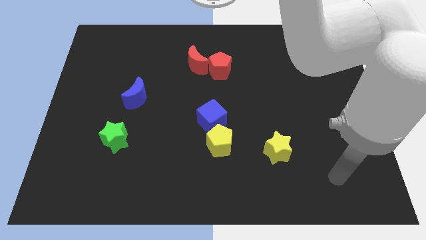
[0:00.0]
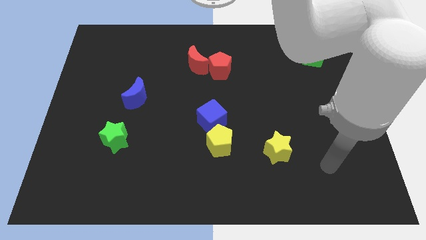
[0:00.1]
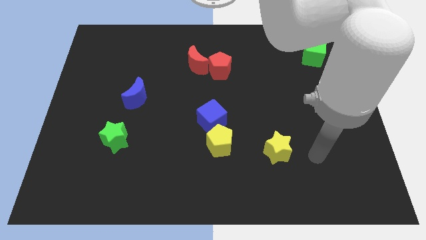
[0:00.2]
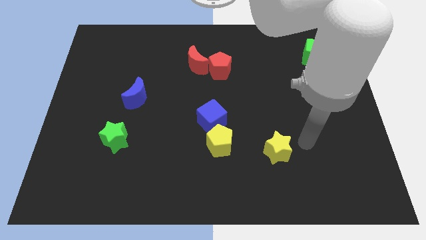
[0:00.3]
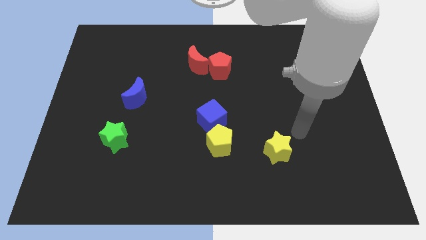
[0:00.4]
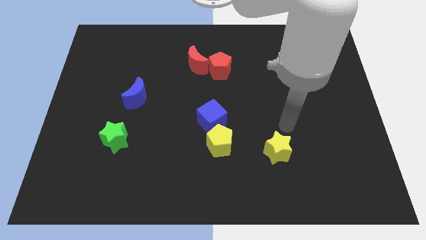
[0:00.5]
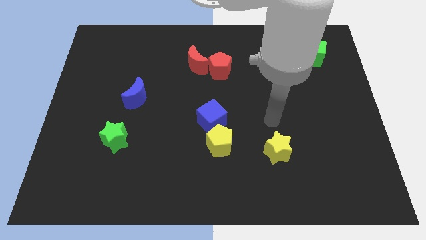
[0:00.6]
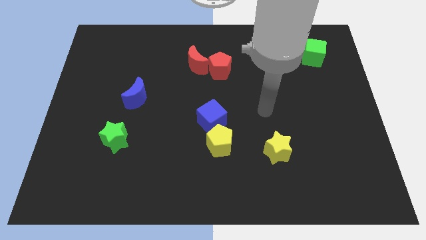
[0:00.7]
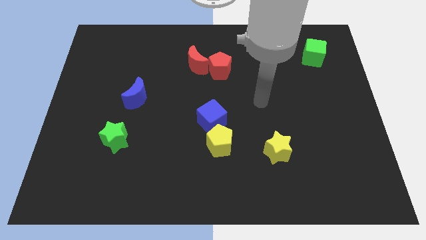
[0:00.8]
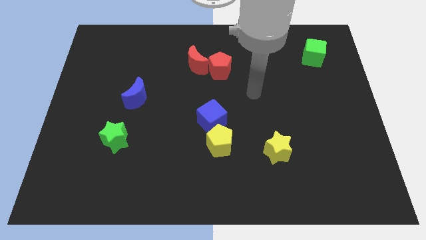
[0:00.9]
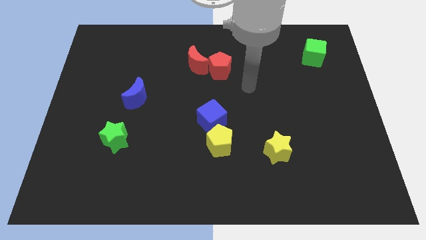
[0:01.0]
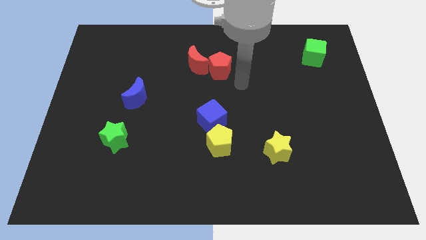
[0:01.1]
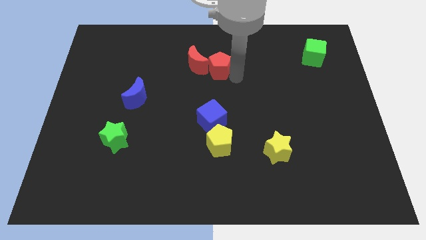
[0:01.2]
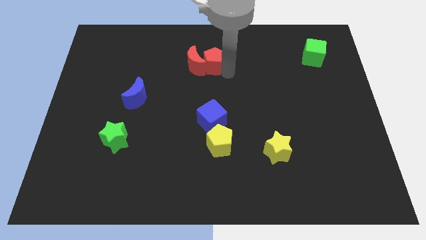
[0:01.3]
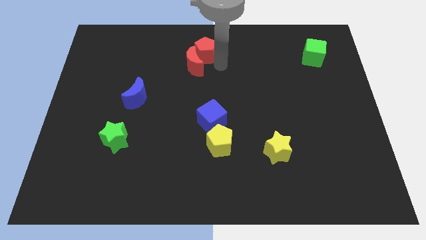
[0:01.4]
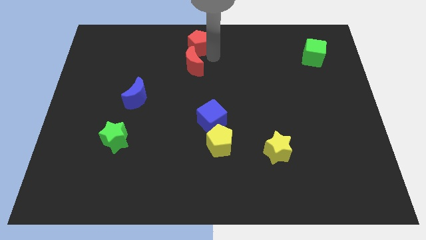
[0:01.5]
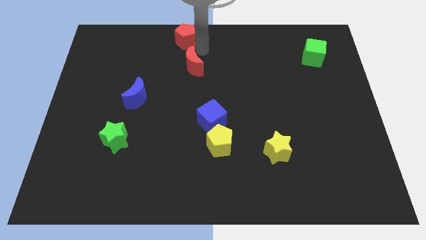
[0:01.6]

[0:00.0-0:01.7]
pull the red moon apart from the red pentagon

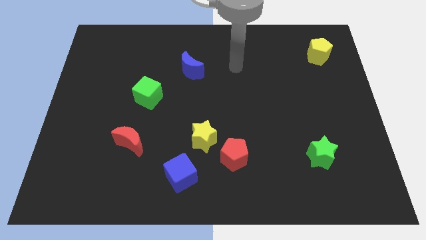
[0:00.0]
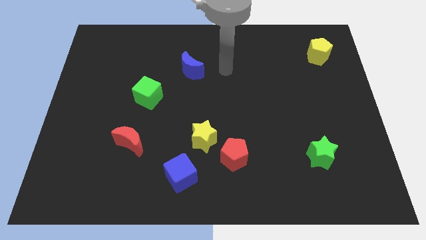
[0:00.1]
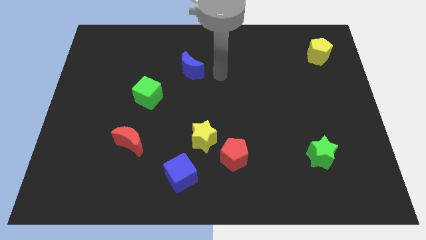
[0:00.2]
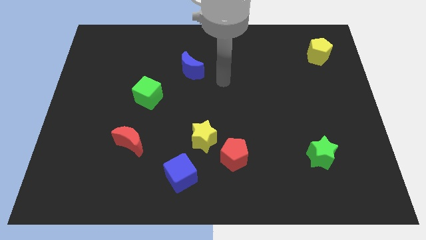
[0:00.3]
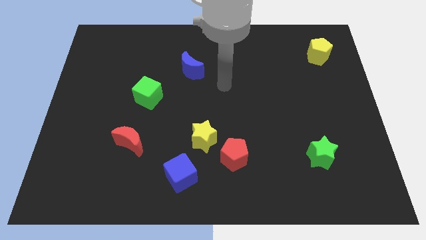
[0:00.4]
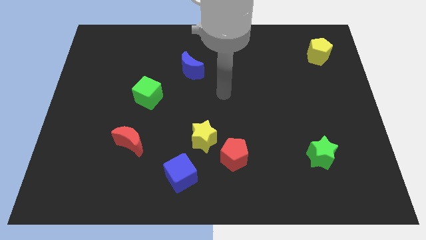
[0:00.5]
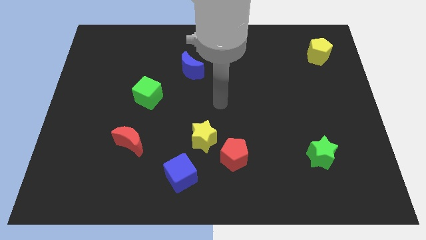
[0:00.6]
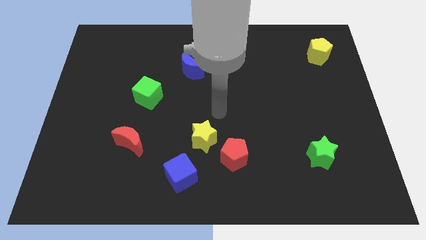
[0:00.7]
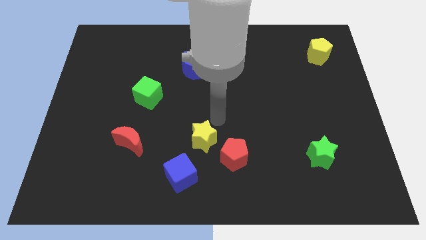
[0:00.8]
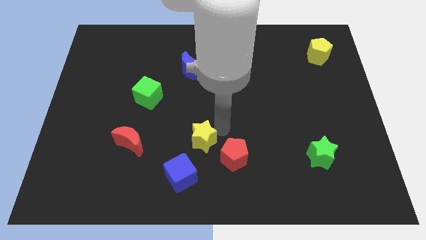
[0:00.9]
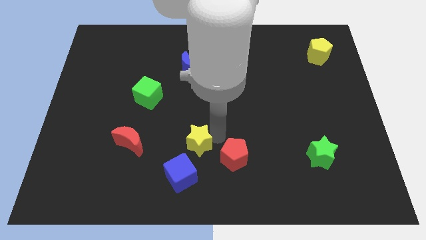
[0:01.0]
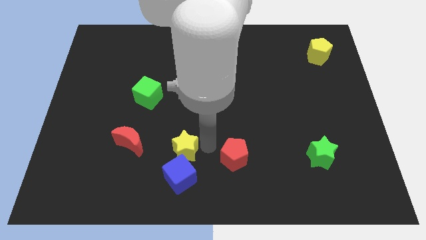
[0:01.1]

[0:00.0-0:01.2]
move the red pentagon away from the yellow star

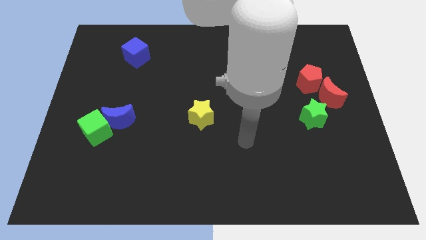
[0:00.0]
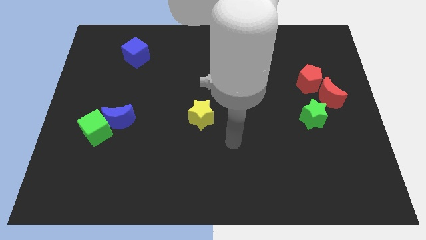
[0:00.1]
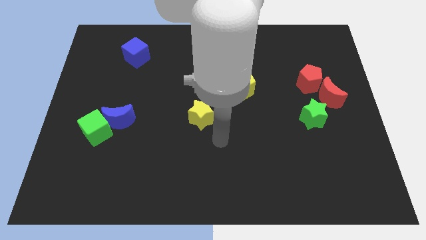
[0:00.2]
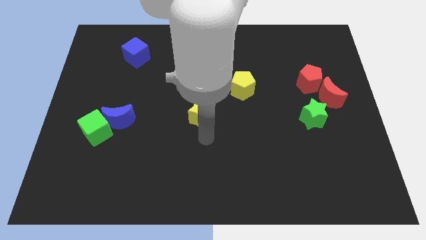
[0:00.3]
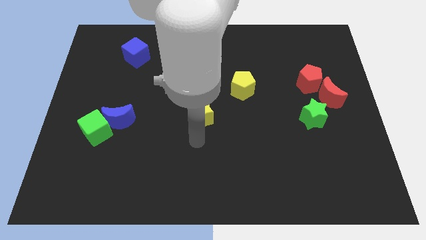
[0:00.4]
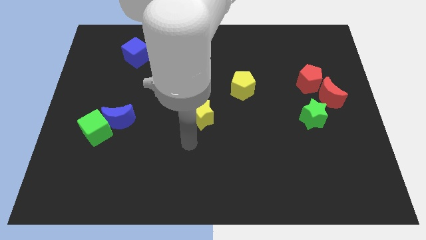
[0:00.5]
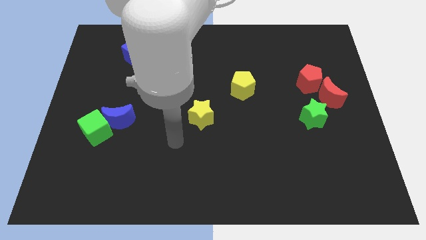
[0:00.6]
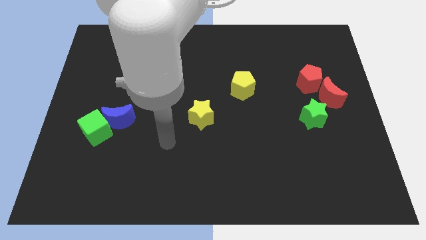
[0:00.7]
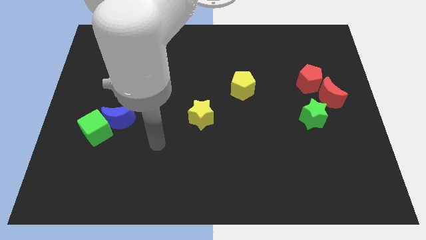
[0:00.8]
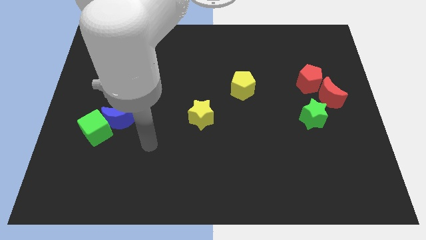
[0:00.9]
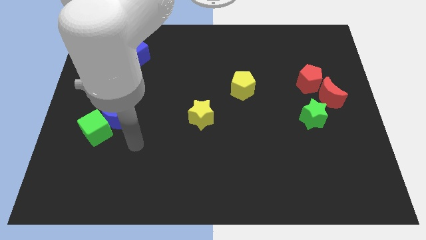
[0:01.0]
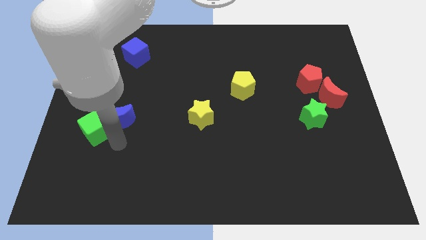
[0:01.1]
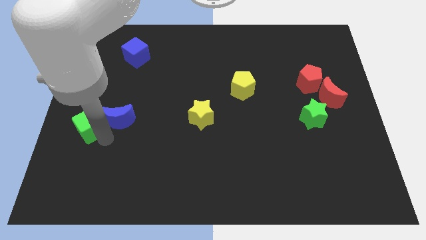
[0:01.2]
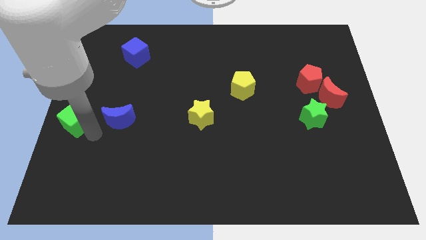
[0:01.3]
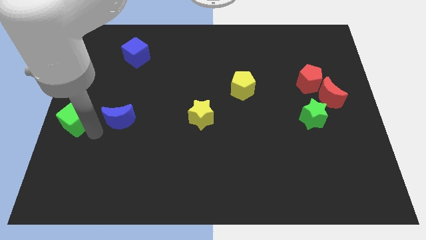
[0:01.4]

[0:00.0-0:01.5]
pull the blue moon apart from the green cube

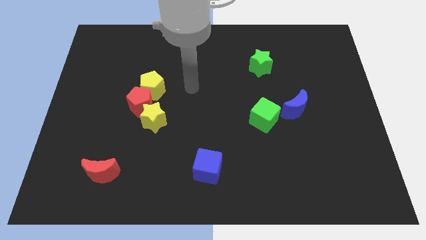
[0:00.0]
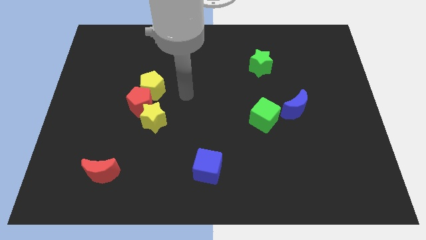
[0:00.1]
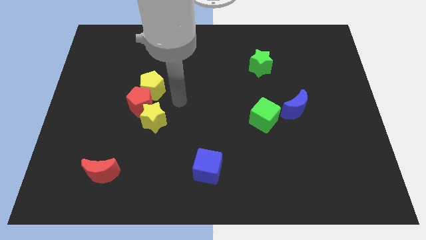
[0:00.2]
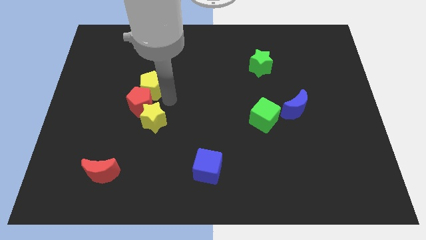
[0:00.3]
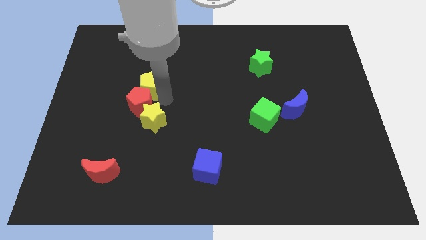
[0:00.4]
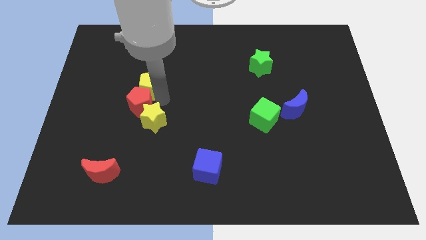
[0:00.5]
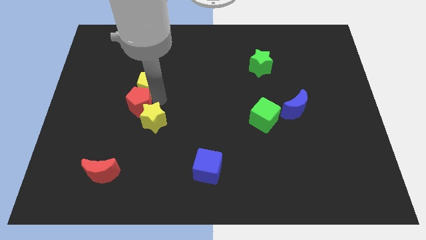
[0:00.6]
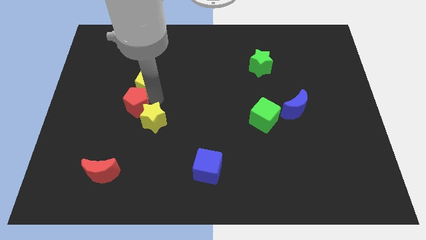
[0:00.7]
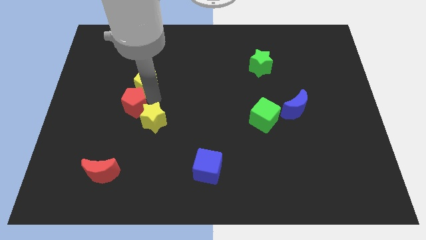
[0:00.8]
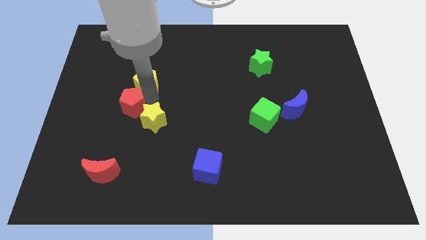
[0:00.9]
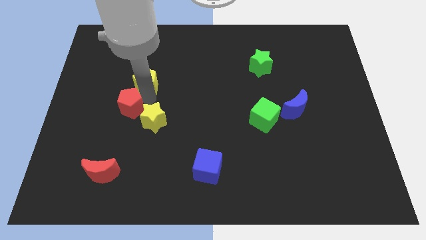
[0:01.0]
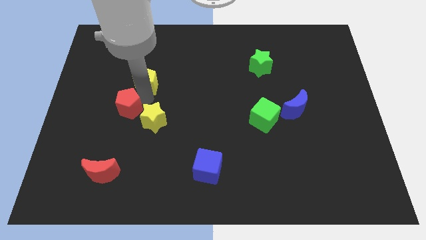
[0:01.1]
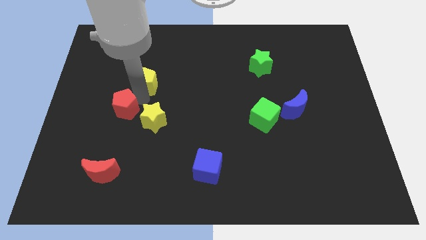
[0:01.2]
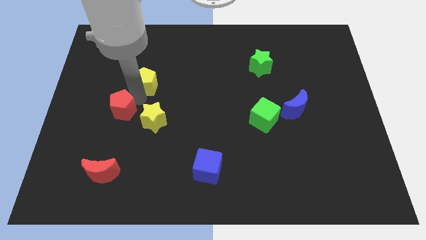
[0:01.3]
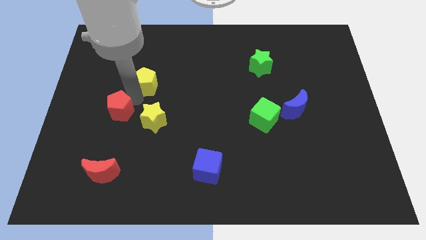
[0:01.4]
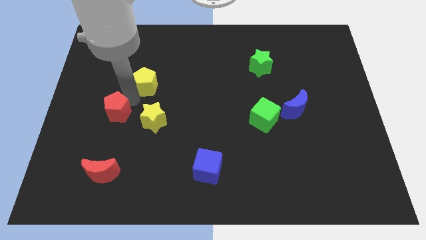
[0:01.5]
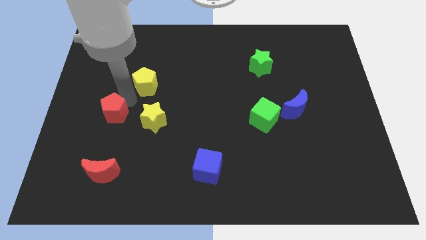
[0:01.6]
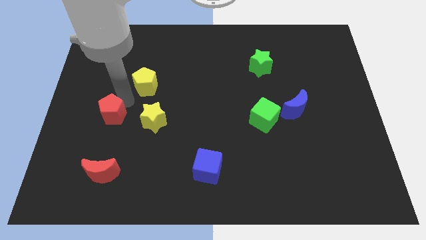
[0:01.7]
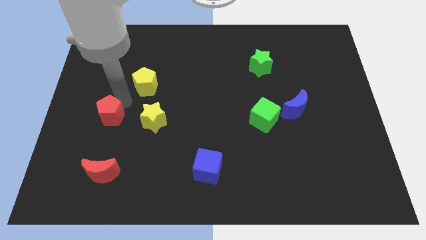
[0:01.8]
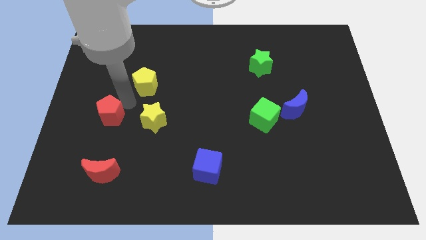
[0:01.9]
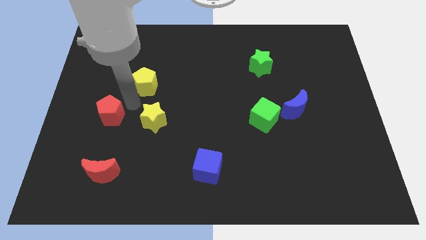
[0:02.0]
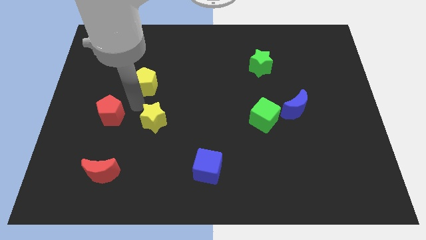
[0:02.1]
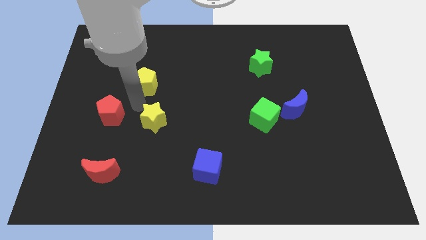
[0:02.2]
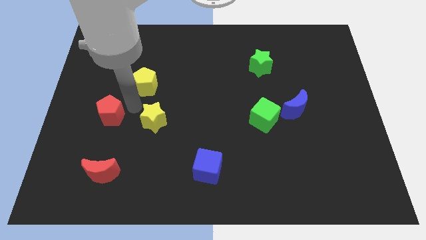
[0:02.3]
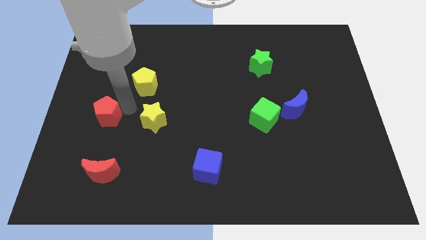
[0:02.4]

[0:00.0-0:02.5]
pull the red pentagon apart from the yellow pentagon and yellow star

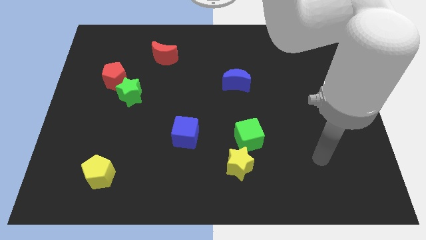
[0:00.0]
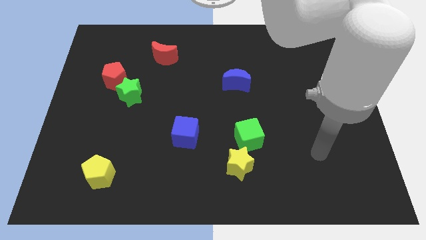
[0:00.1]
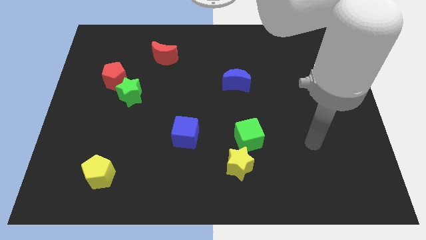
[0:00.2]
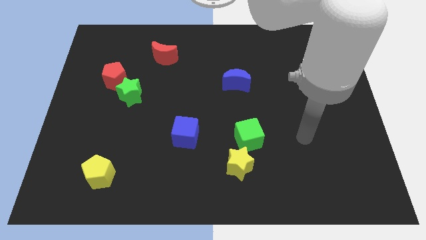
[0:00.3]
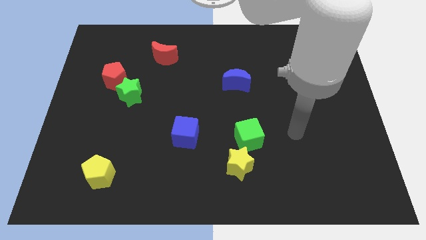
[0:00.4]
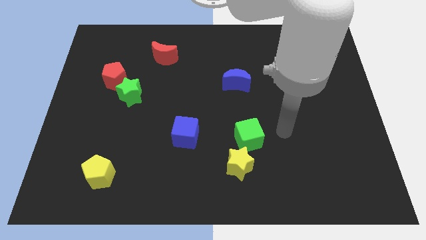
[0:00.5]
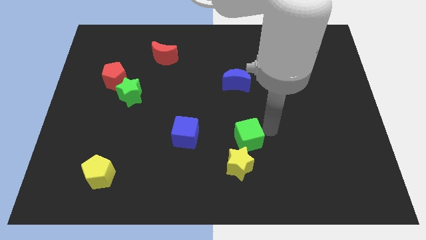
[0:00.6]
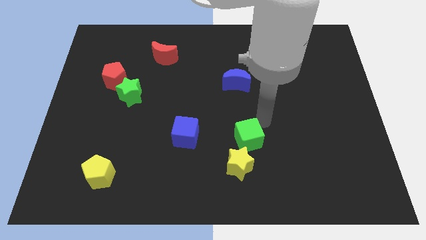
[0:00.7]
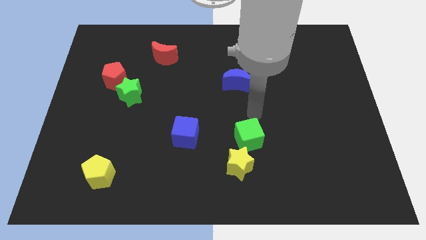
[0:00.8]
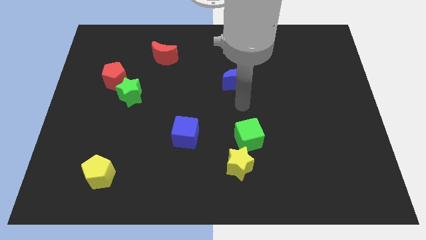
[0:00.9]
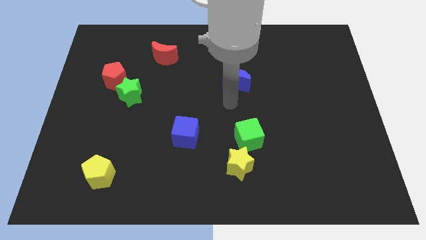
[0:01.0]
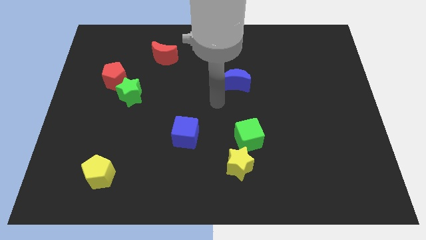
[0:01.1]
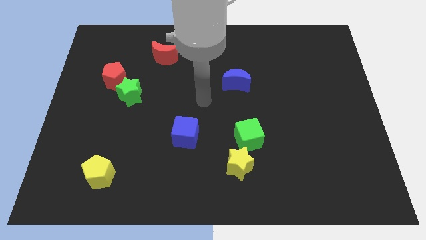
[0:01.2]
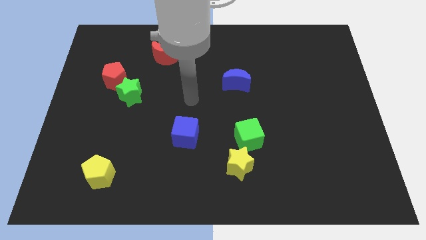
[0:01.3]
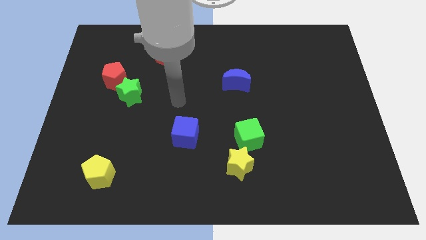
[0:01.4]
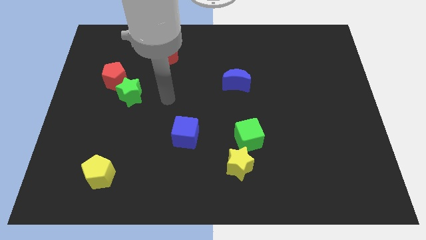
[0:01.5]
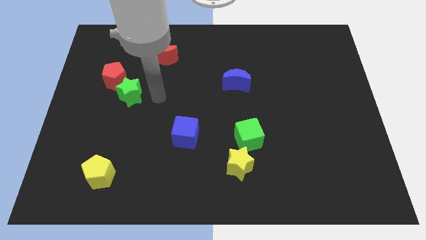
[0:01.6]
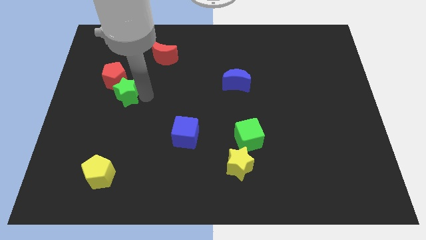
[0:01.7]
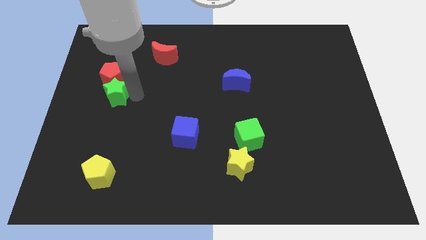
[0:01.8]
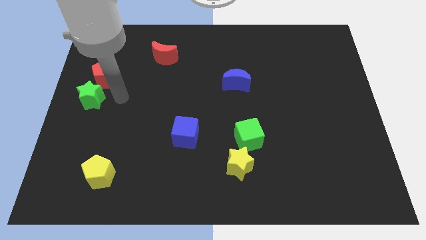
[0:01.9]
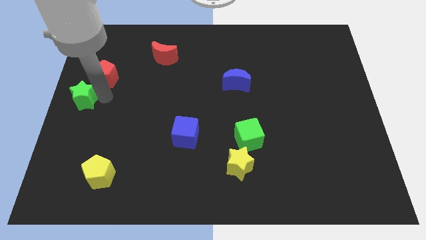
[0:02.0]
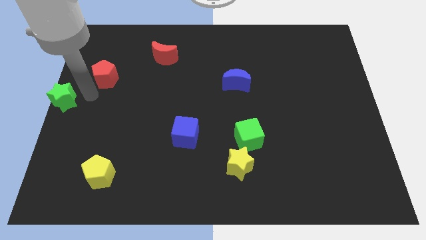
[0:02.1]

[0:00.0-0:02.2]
separate the red pentagon from the green star

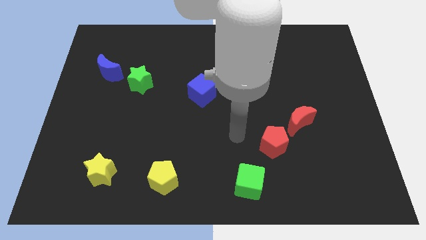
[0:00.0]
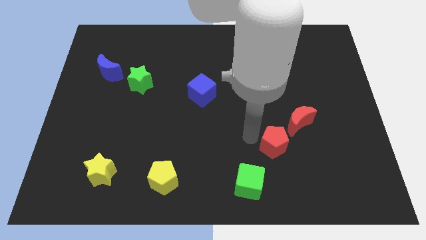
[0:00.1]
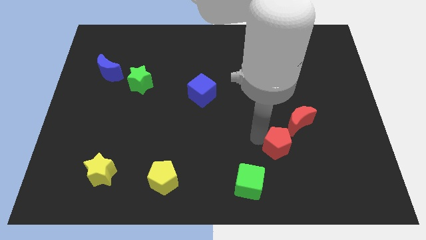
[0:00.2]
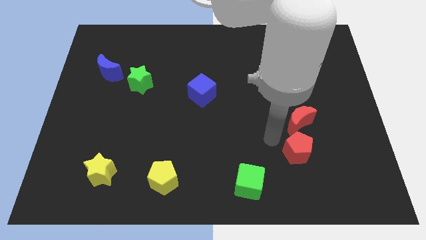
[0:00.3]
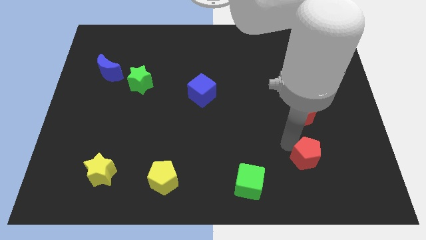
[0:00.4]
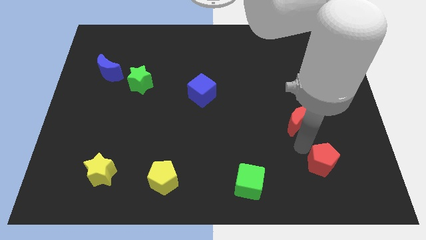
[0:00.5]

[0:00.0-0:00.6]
move the red moon away from the red pentagon
